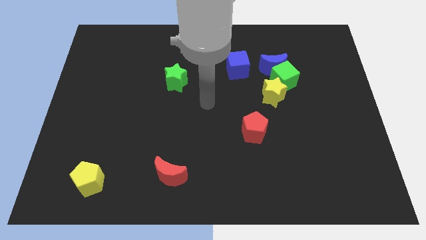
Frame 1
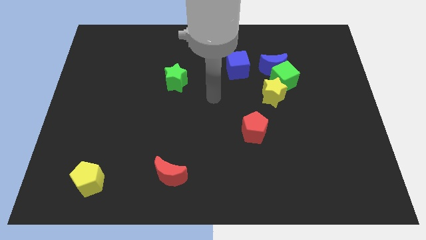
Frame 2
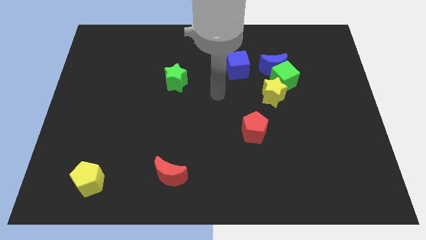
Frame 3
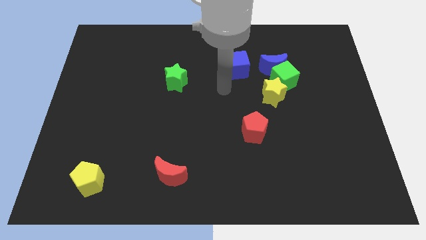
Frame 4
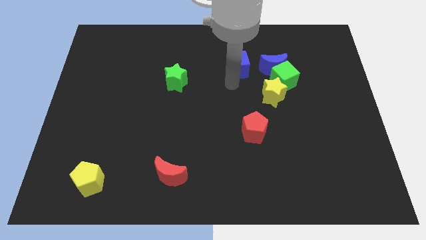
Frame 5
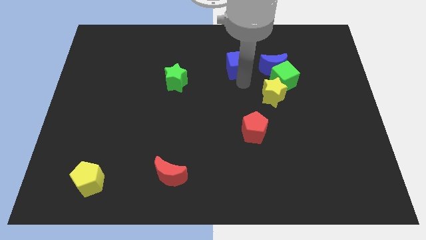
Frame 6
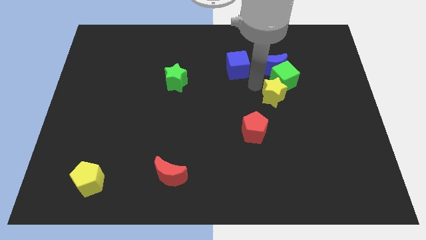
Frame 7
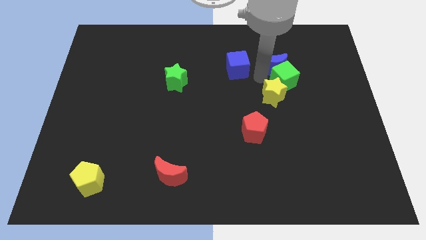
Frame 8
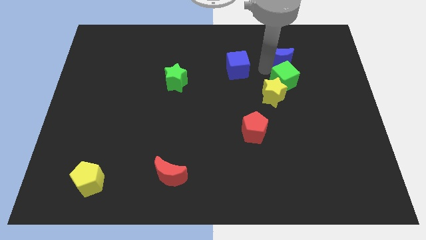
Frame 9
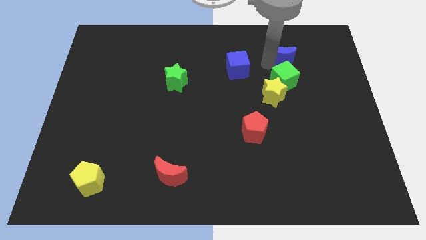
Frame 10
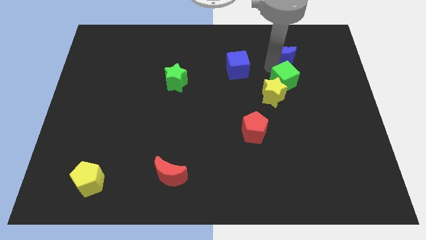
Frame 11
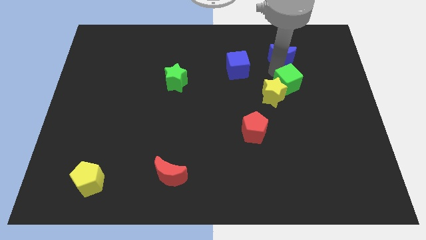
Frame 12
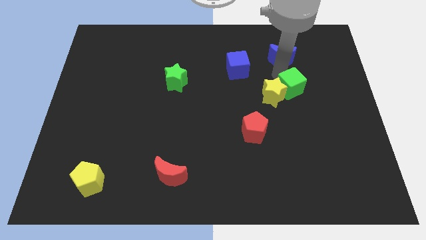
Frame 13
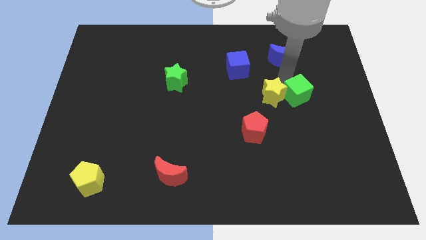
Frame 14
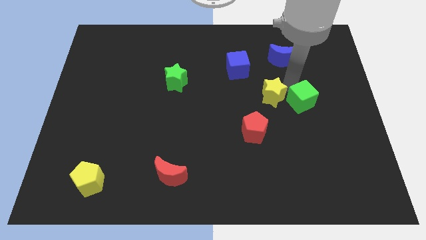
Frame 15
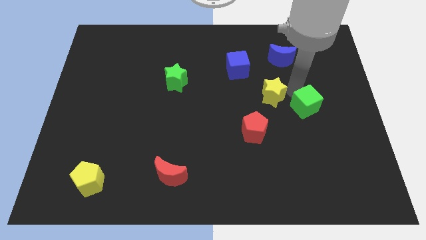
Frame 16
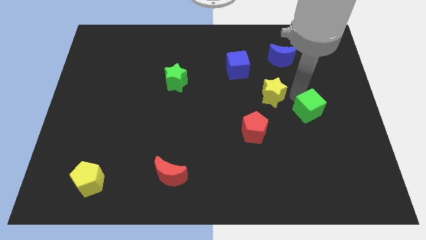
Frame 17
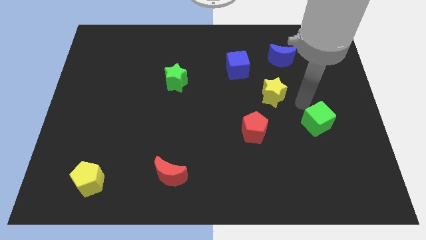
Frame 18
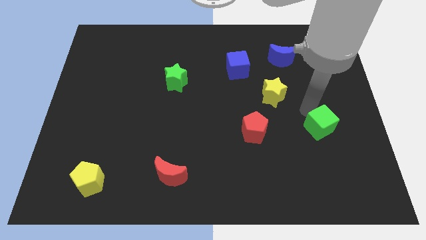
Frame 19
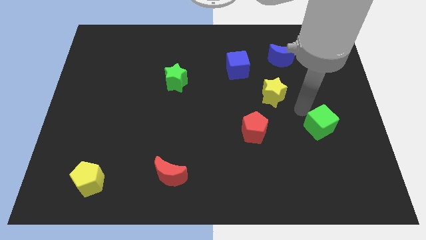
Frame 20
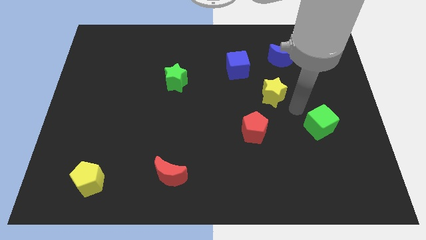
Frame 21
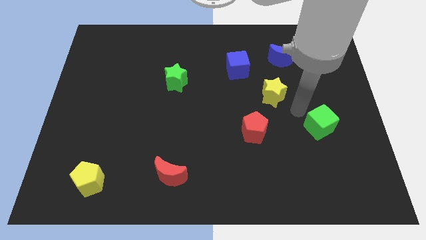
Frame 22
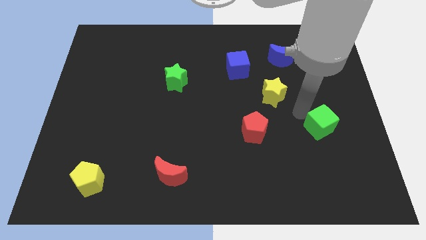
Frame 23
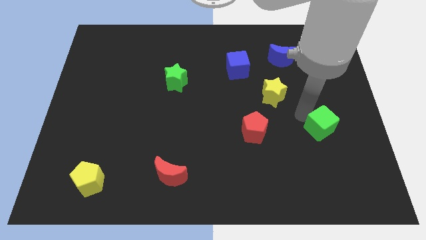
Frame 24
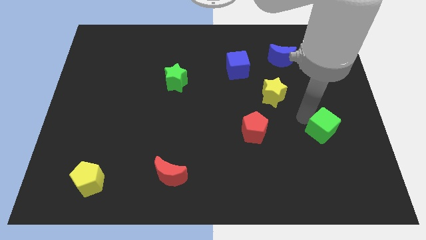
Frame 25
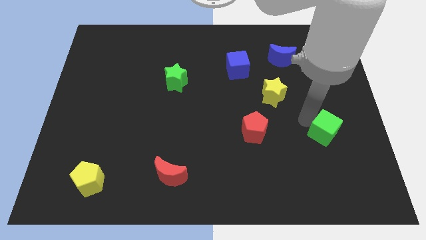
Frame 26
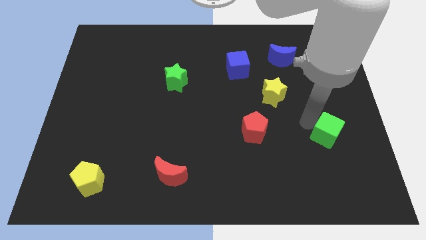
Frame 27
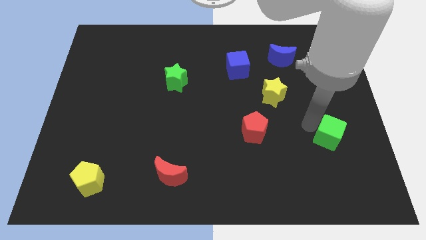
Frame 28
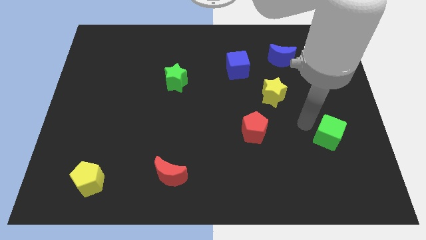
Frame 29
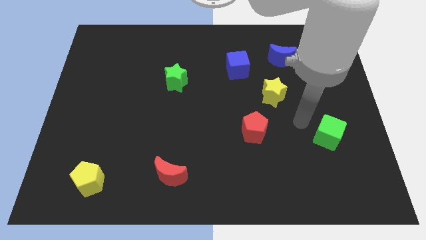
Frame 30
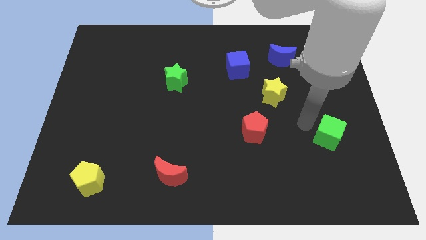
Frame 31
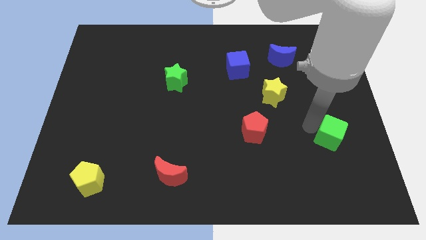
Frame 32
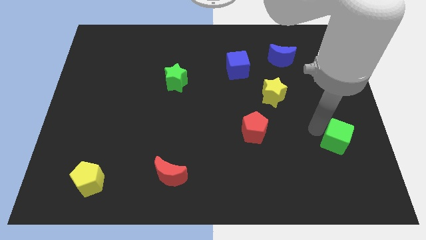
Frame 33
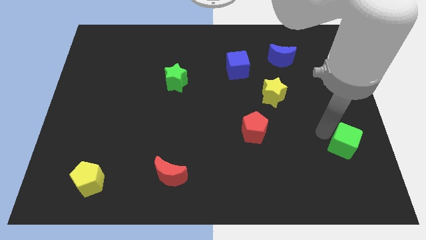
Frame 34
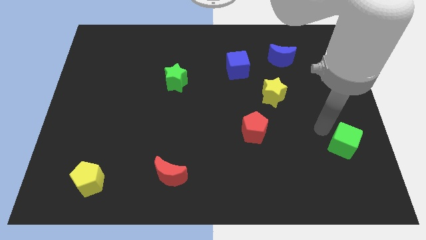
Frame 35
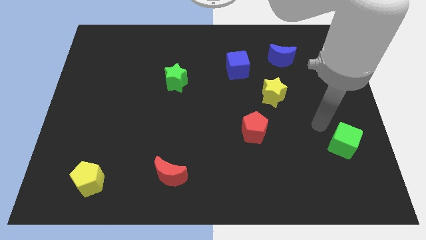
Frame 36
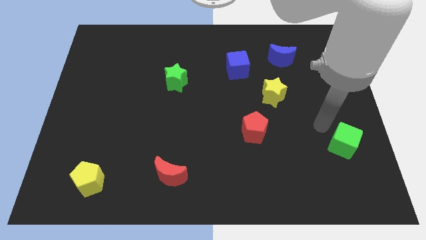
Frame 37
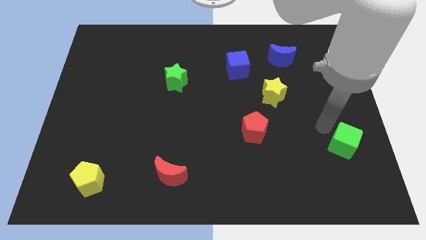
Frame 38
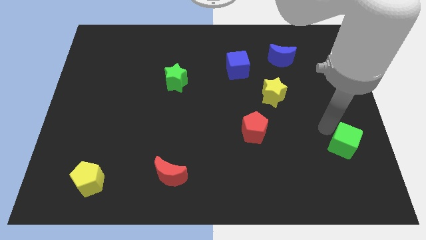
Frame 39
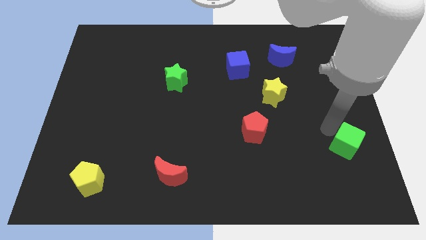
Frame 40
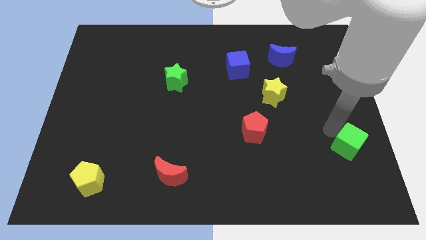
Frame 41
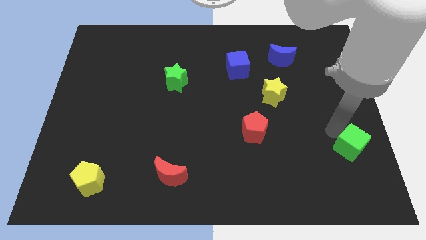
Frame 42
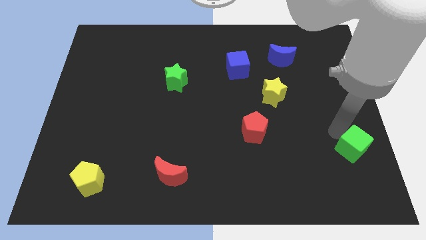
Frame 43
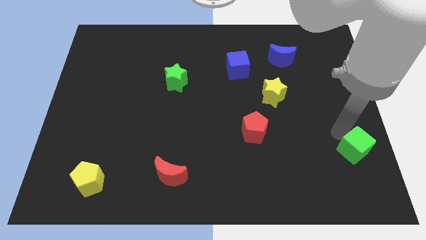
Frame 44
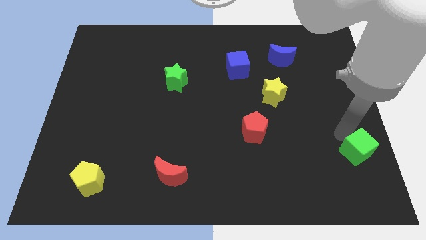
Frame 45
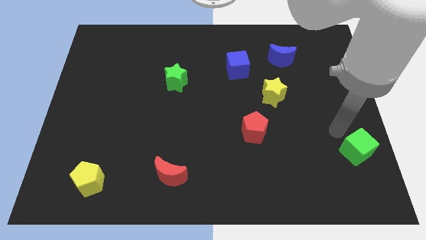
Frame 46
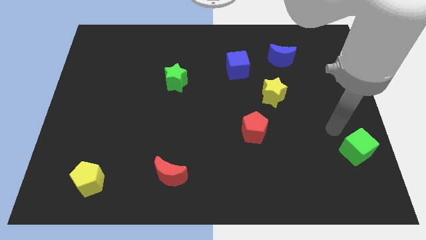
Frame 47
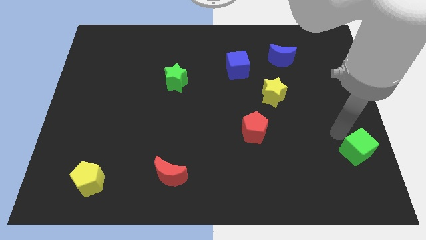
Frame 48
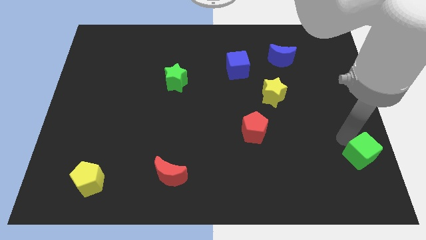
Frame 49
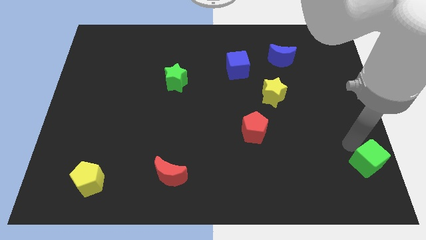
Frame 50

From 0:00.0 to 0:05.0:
move the green cube to the bottom right corner

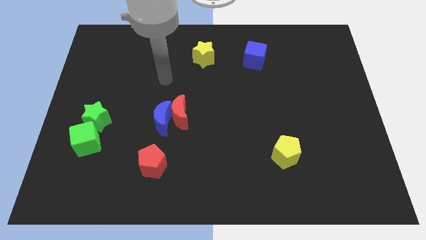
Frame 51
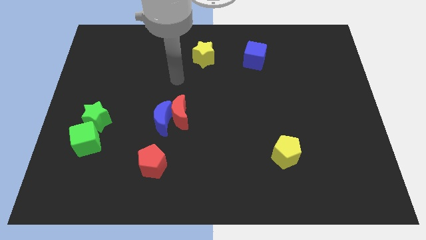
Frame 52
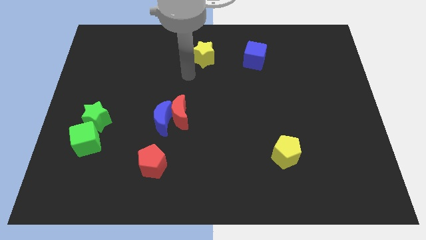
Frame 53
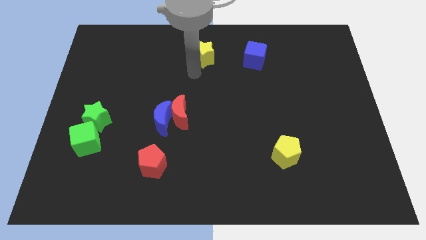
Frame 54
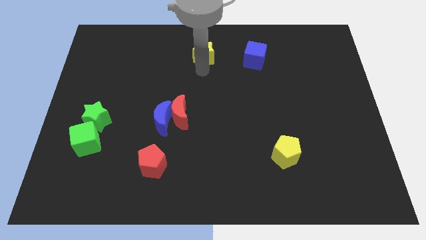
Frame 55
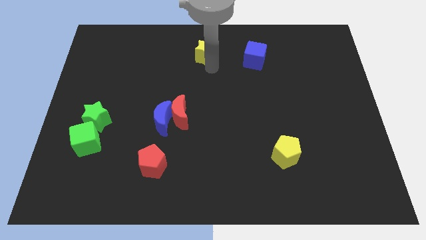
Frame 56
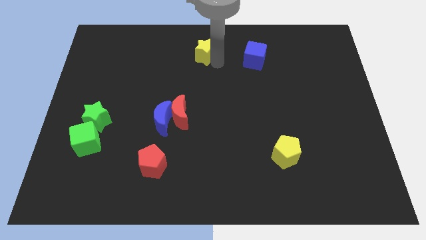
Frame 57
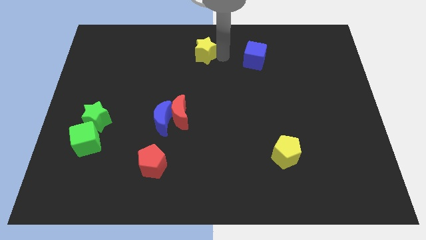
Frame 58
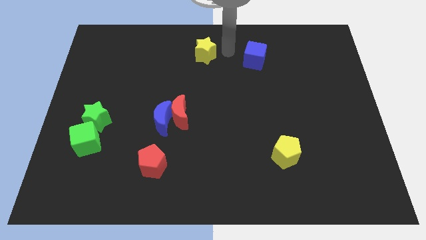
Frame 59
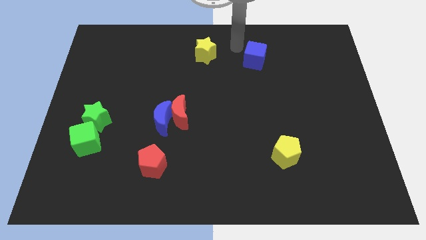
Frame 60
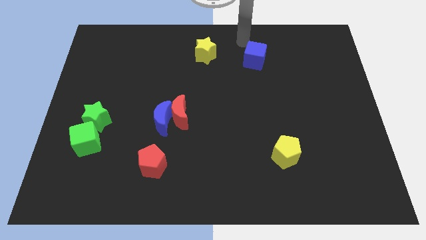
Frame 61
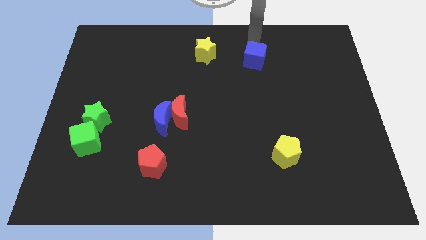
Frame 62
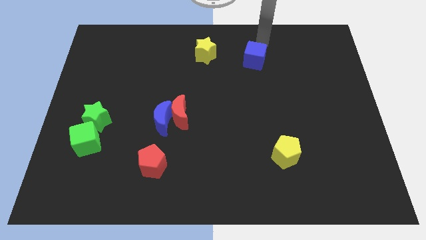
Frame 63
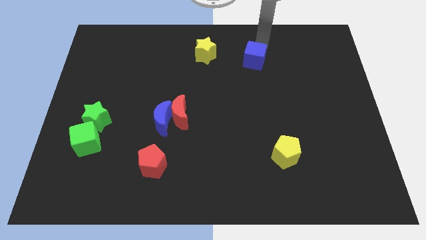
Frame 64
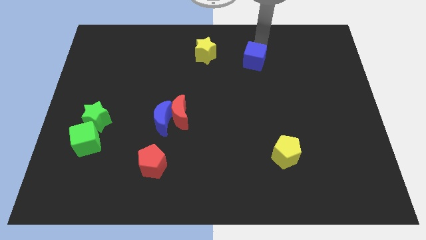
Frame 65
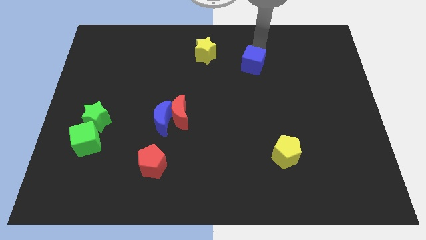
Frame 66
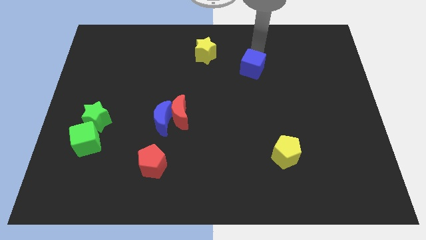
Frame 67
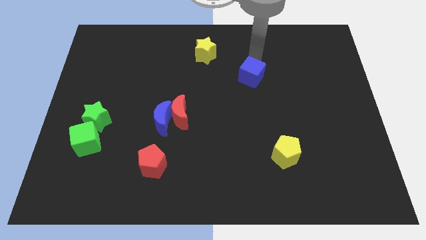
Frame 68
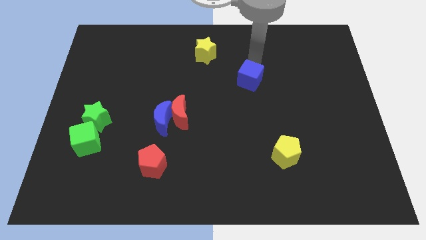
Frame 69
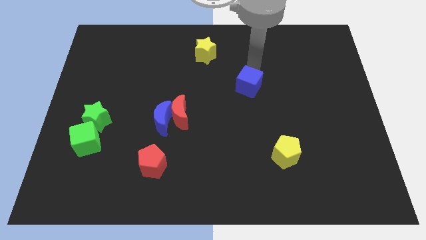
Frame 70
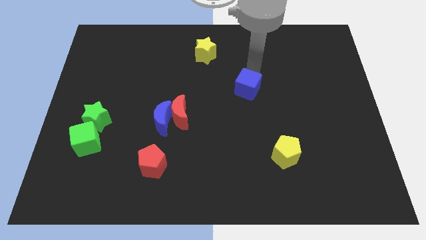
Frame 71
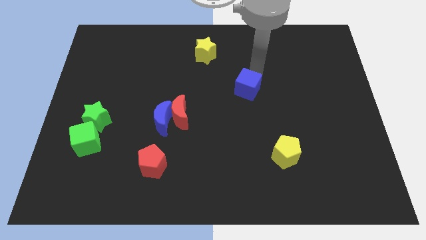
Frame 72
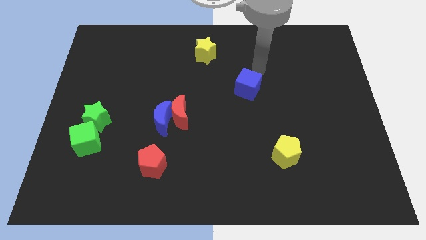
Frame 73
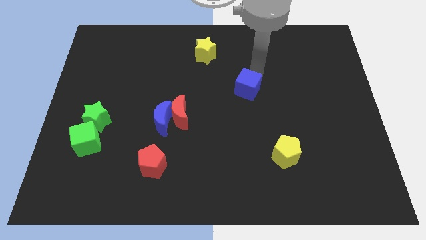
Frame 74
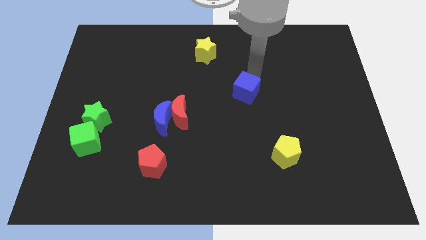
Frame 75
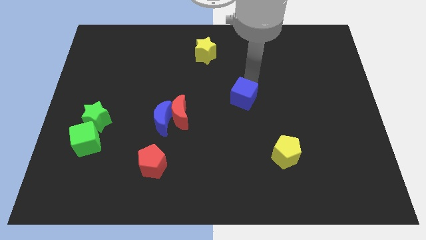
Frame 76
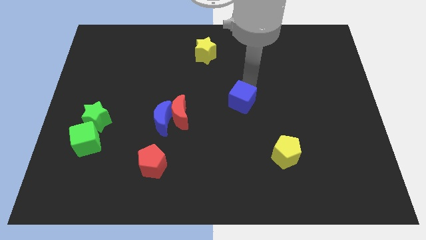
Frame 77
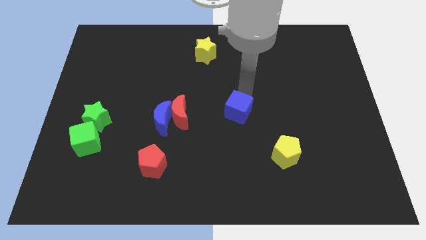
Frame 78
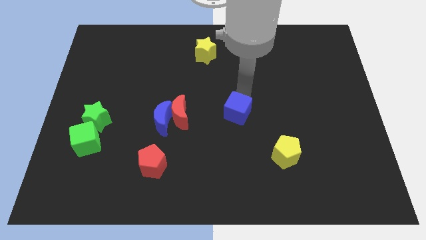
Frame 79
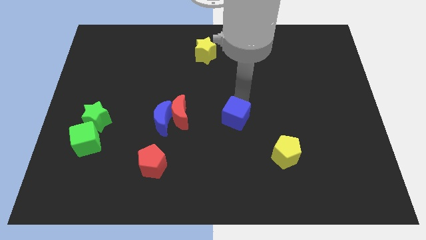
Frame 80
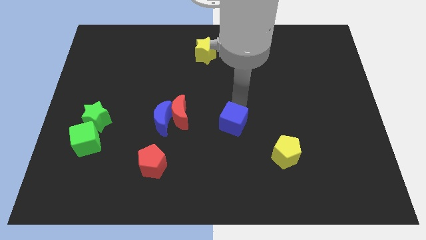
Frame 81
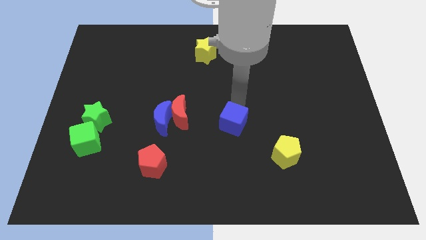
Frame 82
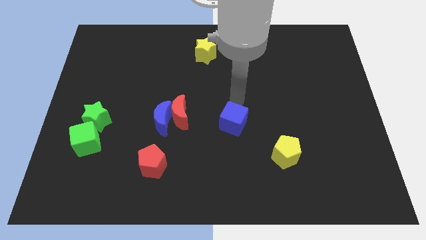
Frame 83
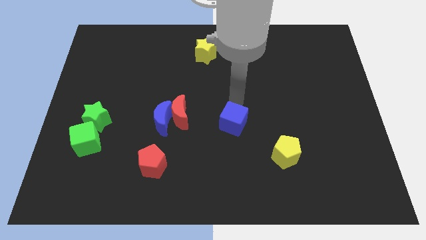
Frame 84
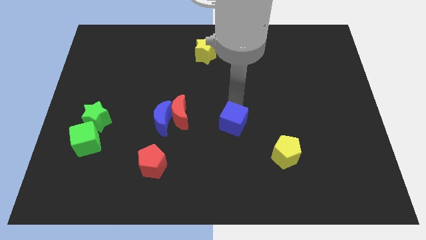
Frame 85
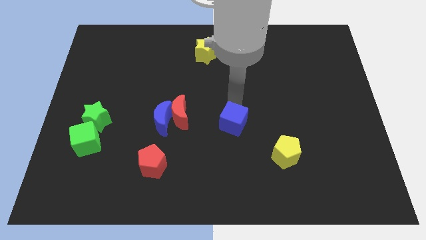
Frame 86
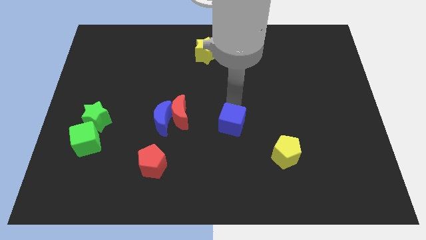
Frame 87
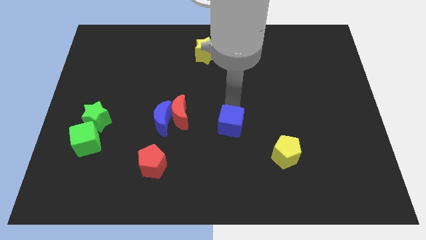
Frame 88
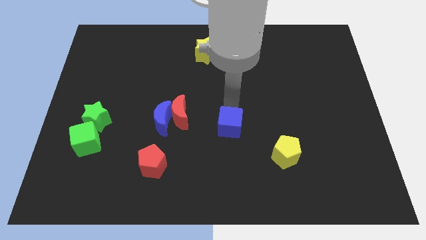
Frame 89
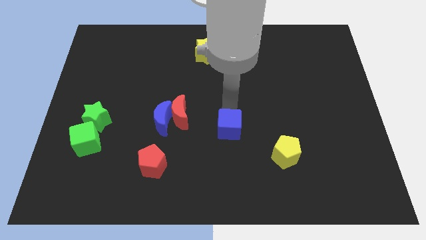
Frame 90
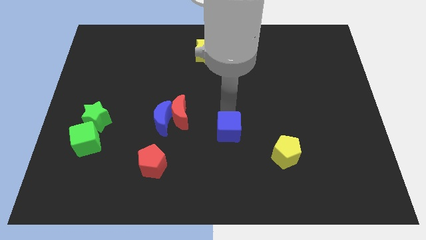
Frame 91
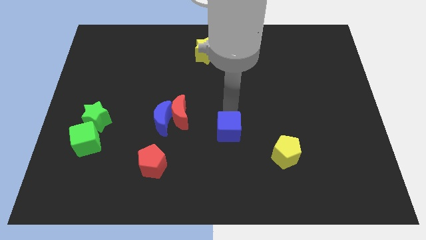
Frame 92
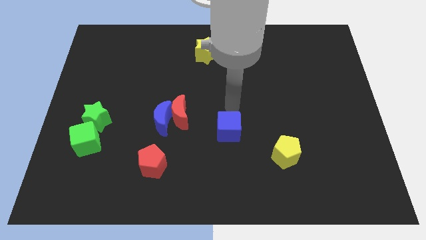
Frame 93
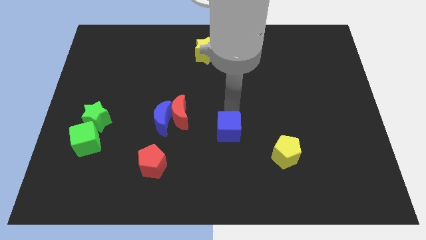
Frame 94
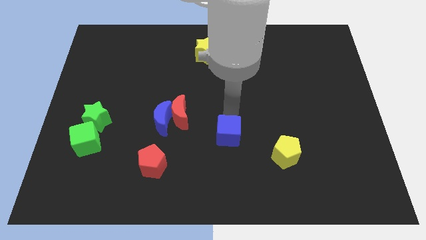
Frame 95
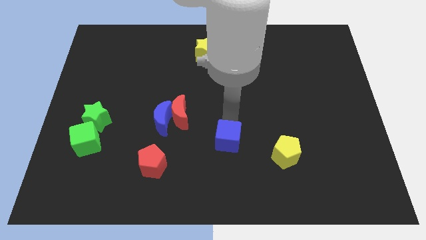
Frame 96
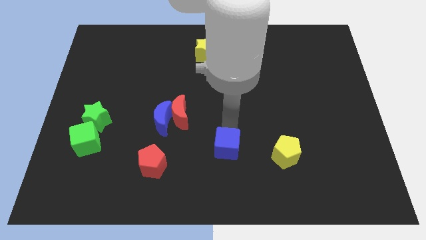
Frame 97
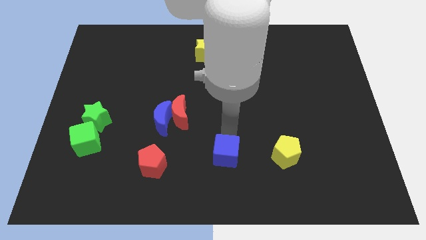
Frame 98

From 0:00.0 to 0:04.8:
put the blue cube to the bottom side
